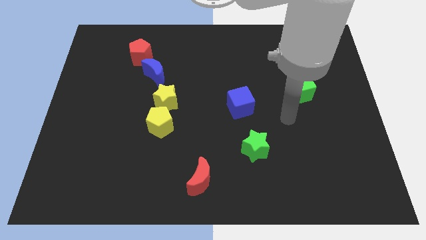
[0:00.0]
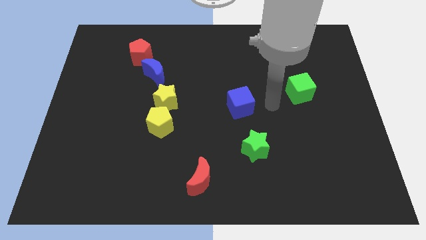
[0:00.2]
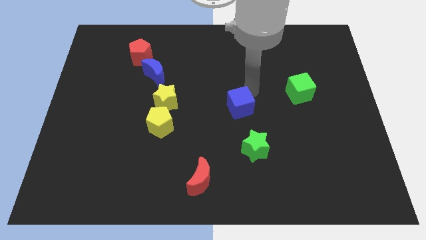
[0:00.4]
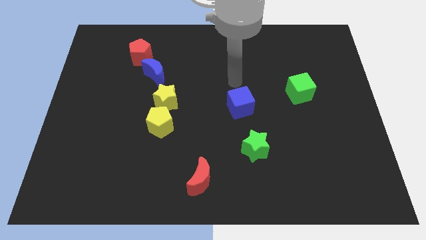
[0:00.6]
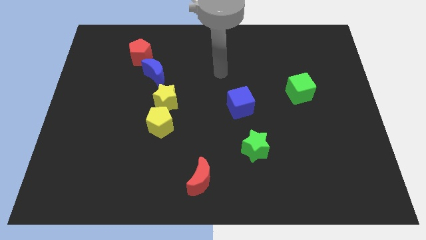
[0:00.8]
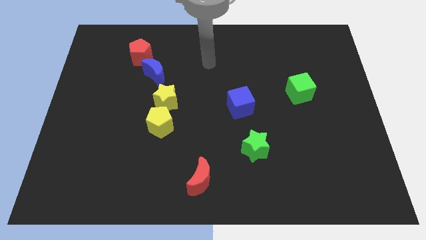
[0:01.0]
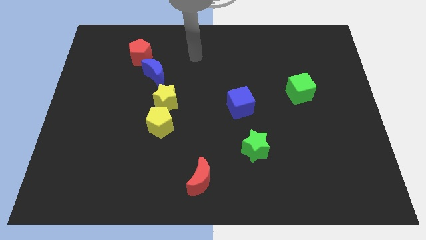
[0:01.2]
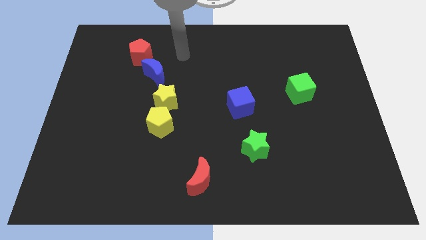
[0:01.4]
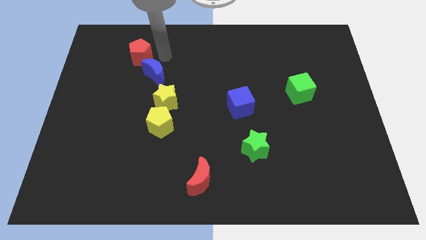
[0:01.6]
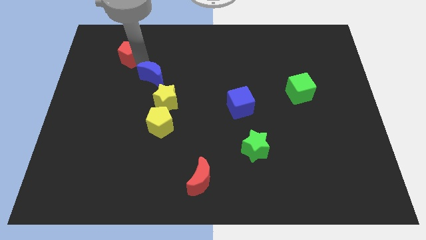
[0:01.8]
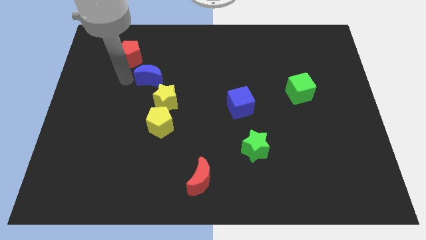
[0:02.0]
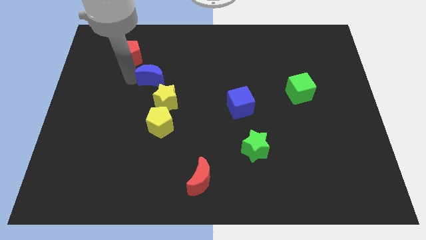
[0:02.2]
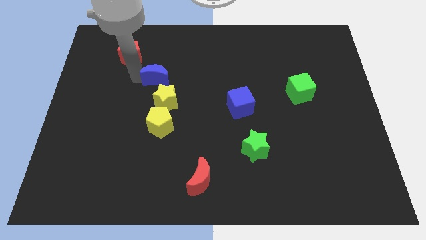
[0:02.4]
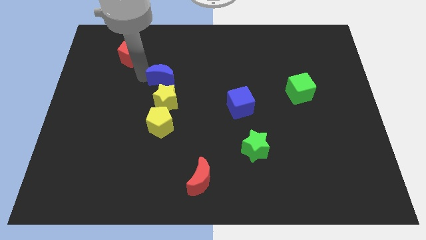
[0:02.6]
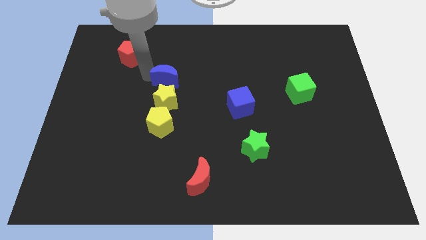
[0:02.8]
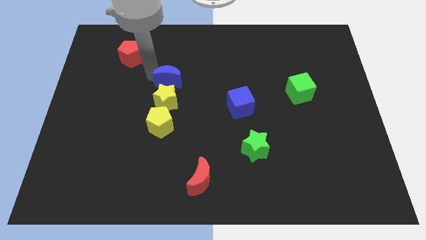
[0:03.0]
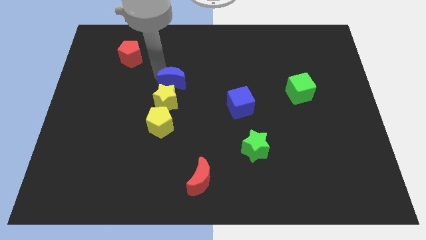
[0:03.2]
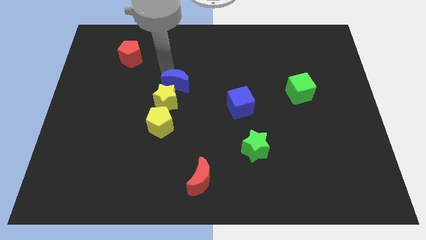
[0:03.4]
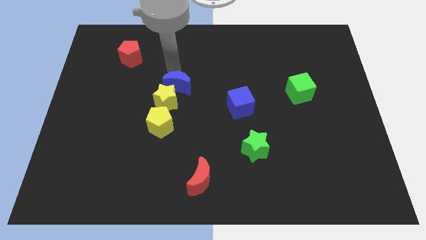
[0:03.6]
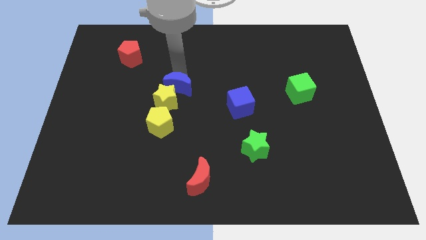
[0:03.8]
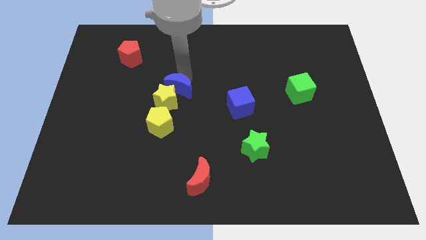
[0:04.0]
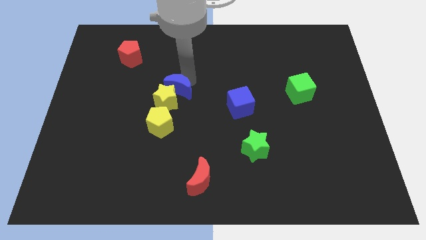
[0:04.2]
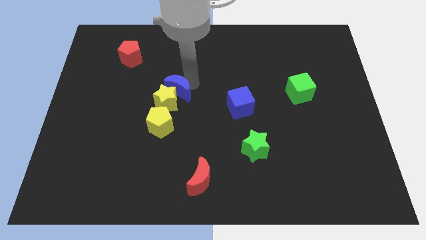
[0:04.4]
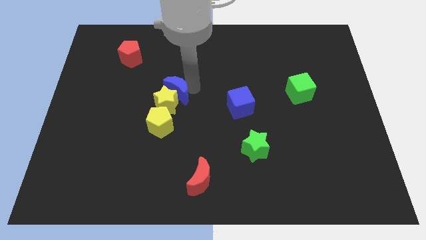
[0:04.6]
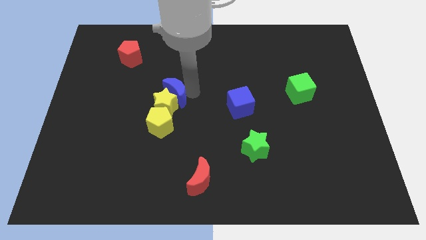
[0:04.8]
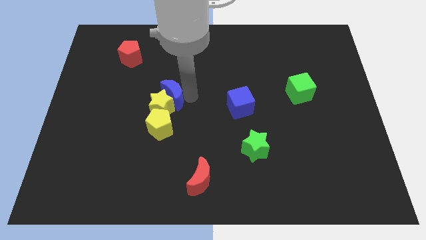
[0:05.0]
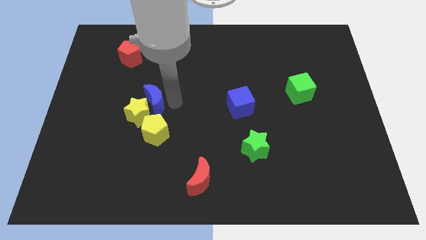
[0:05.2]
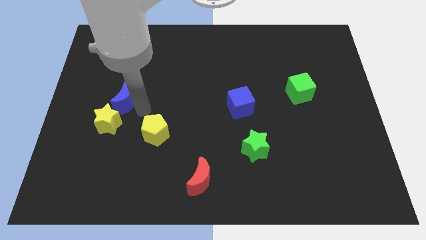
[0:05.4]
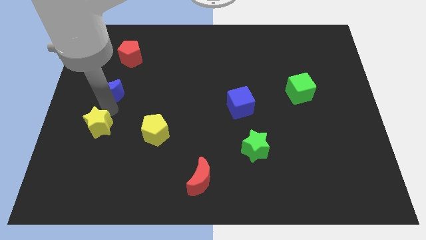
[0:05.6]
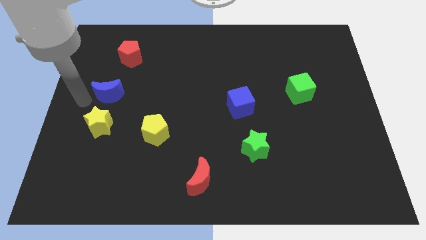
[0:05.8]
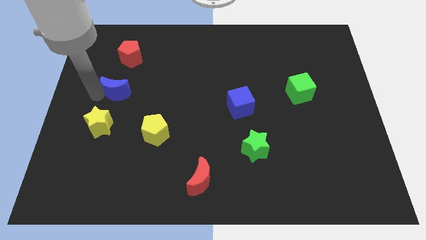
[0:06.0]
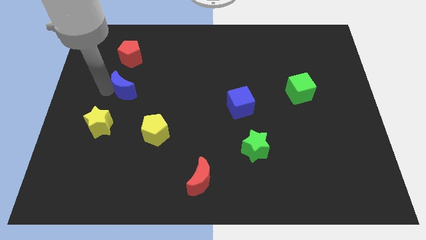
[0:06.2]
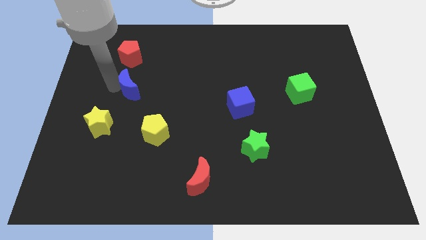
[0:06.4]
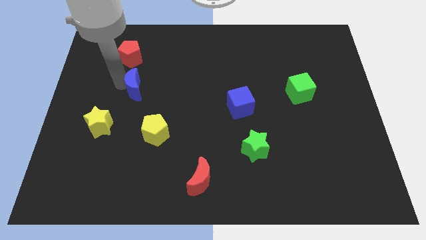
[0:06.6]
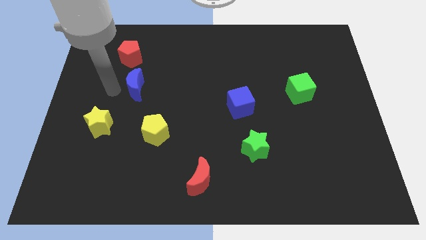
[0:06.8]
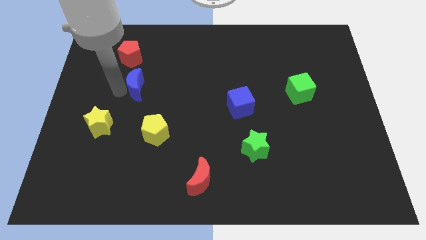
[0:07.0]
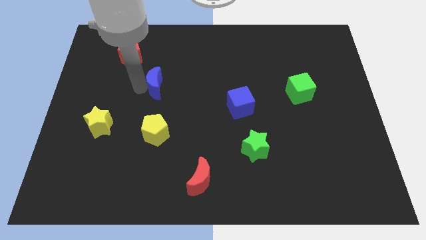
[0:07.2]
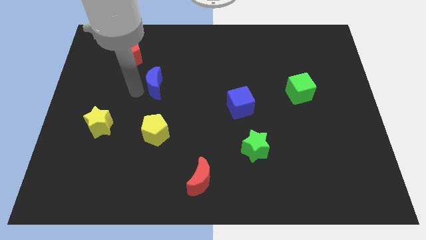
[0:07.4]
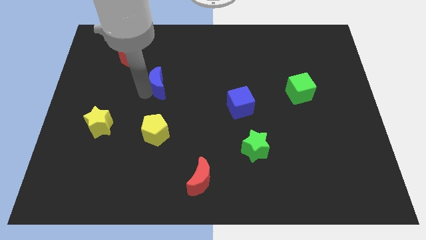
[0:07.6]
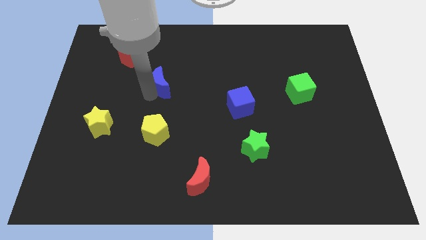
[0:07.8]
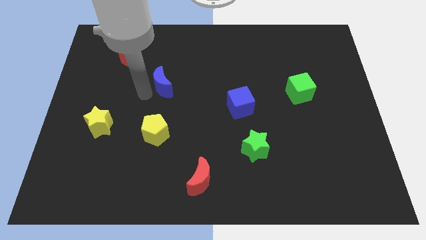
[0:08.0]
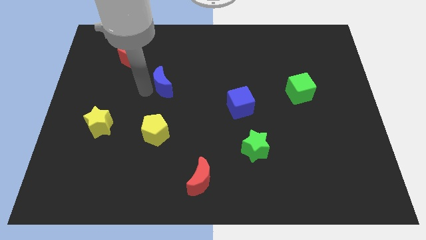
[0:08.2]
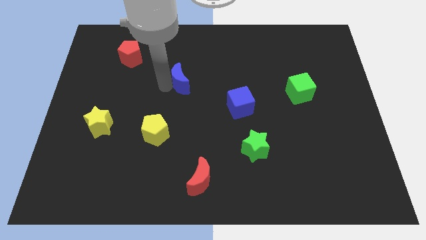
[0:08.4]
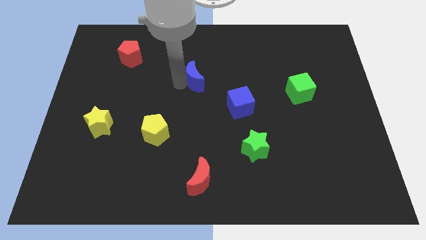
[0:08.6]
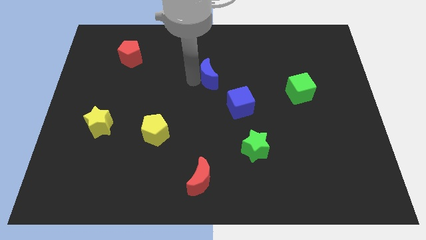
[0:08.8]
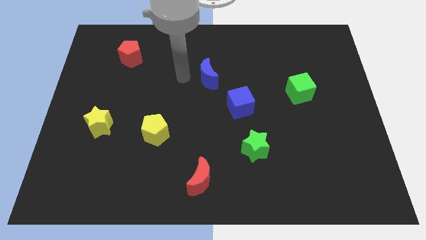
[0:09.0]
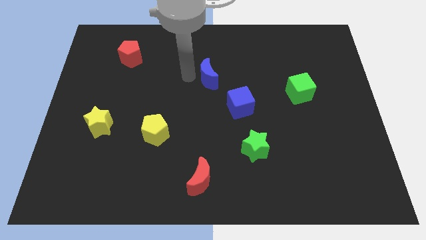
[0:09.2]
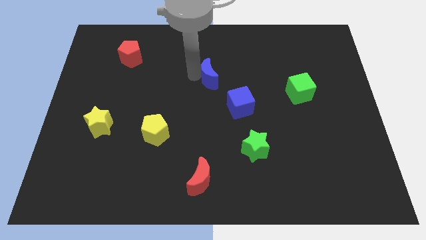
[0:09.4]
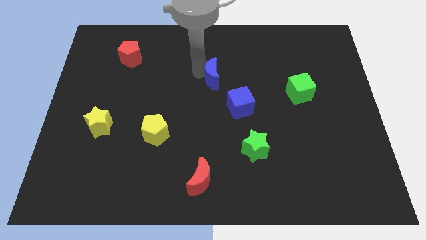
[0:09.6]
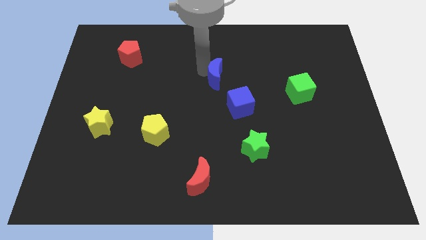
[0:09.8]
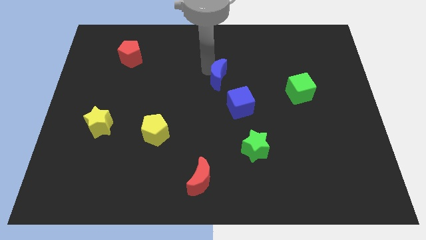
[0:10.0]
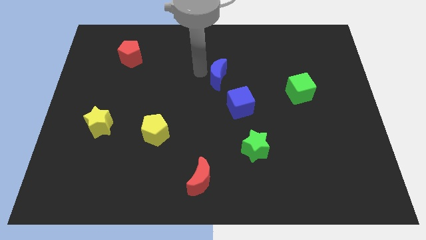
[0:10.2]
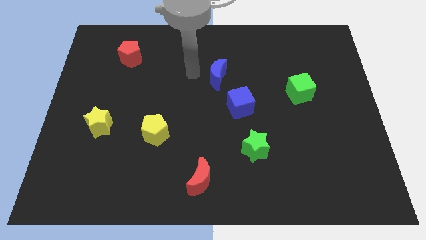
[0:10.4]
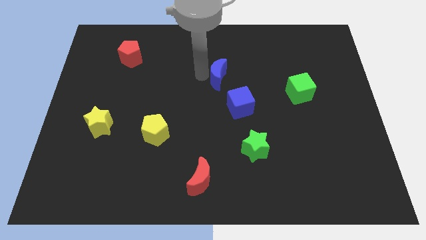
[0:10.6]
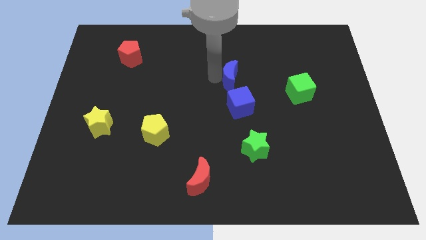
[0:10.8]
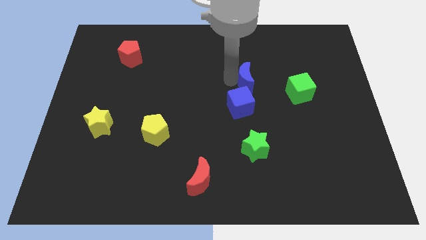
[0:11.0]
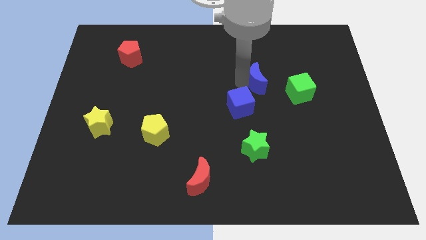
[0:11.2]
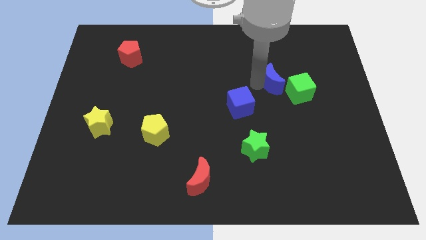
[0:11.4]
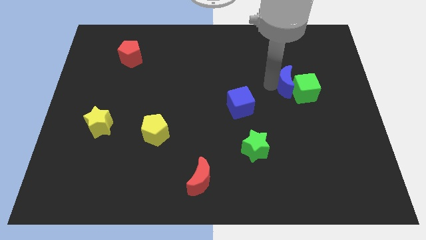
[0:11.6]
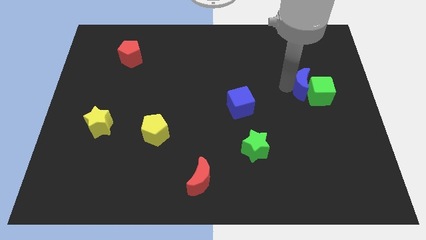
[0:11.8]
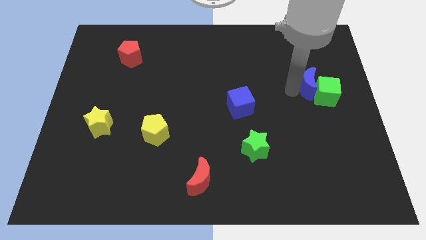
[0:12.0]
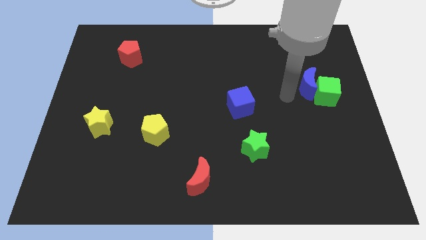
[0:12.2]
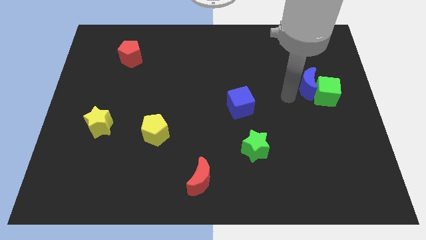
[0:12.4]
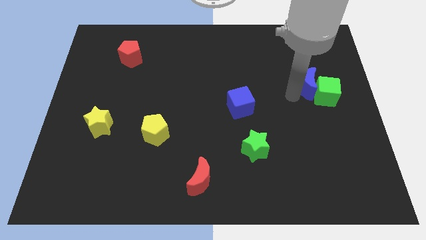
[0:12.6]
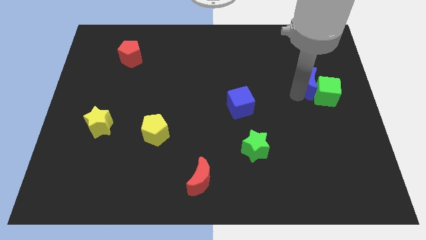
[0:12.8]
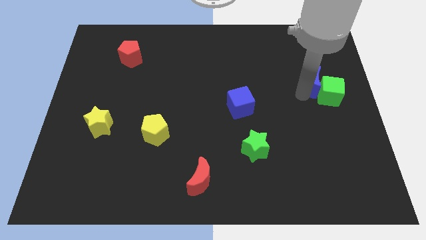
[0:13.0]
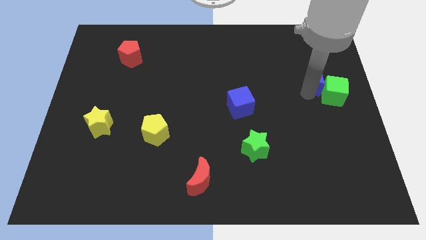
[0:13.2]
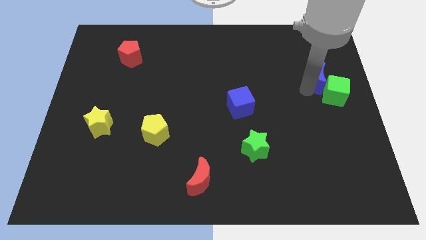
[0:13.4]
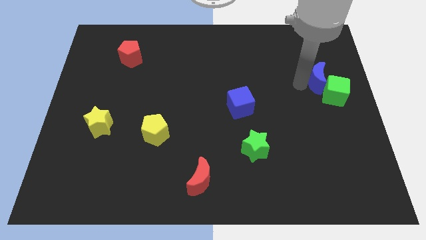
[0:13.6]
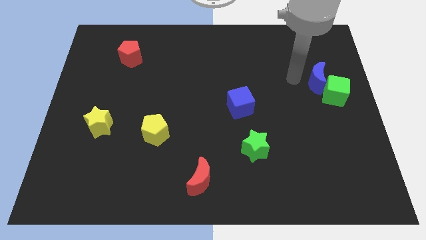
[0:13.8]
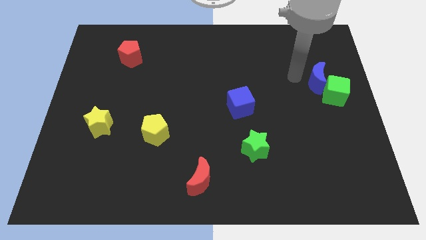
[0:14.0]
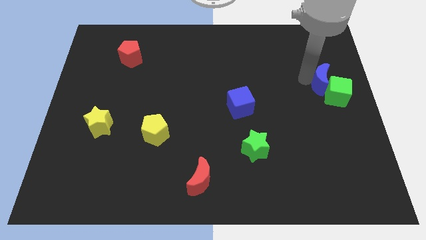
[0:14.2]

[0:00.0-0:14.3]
move the blue moon to the center right
